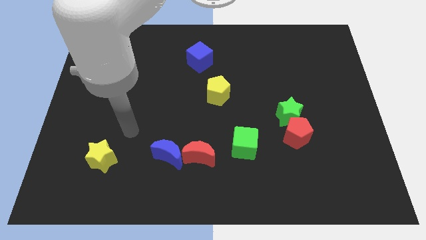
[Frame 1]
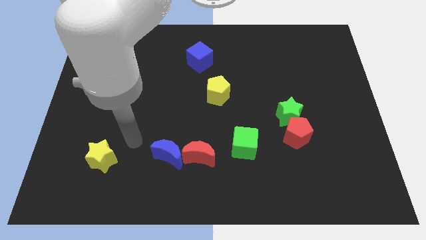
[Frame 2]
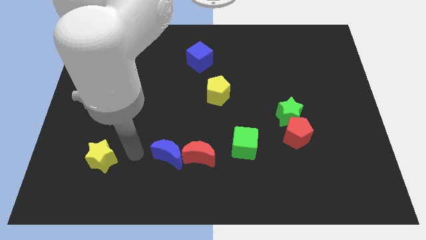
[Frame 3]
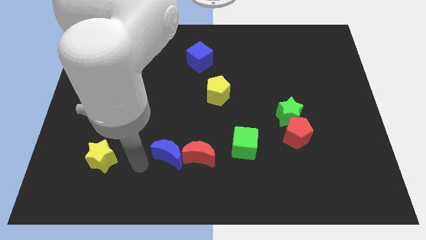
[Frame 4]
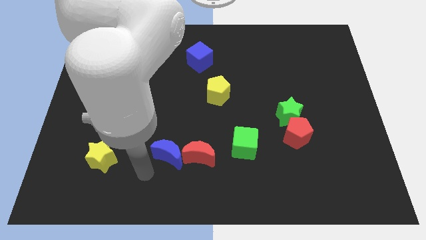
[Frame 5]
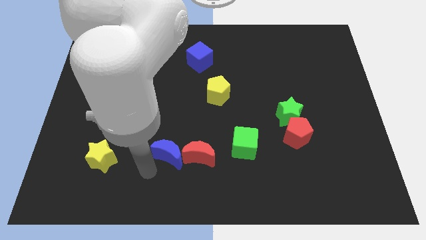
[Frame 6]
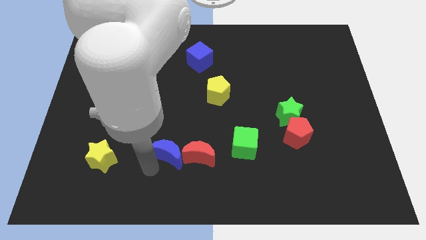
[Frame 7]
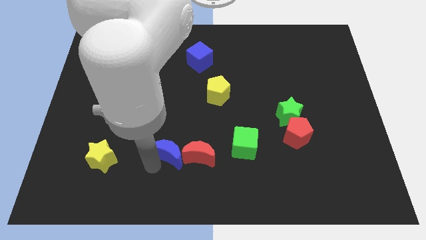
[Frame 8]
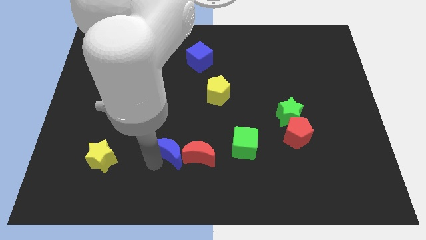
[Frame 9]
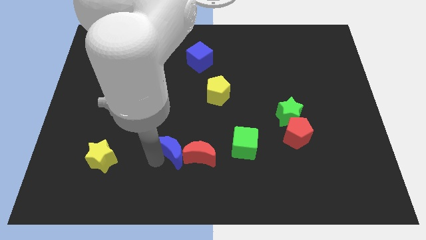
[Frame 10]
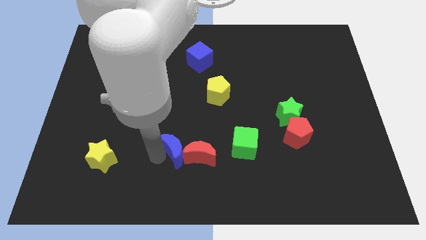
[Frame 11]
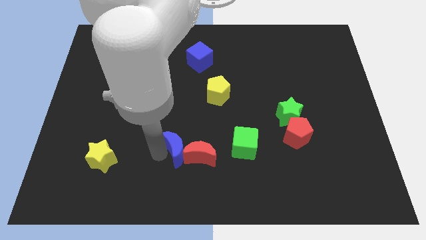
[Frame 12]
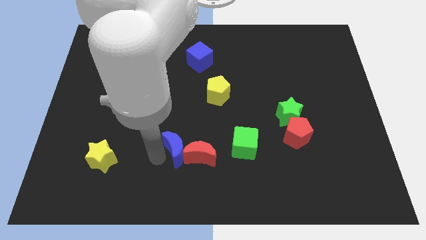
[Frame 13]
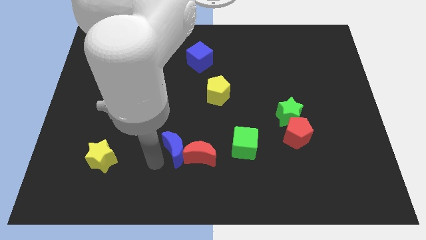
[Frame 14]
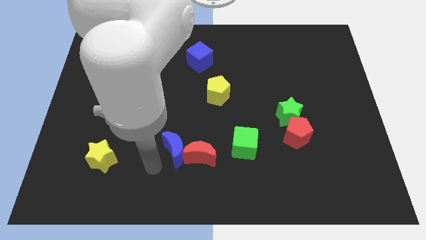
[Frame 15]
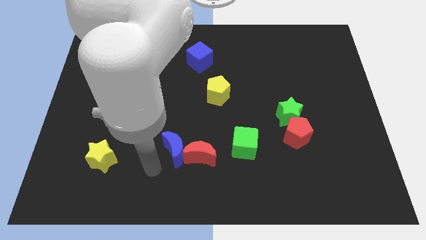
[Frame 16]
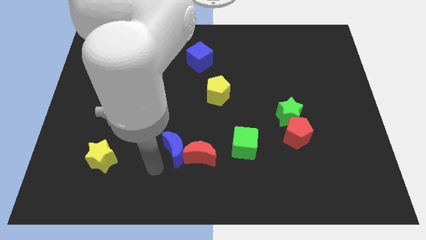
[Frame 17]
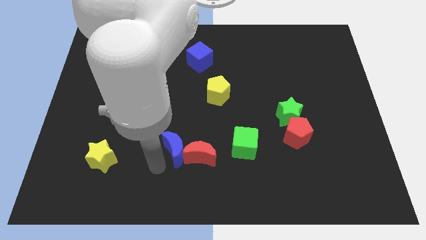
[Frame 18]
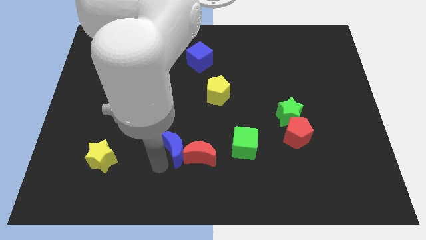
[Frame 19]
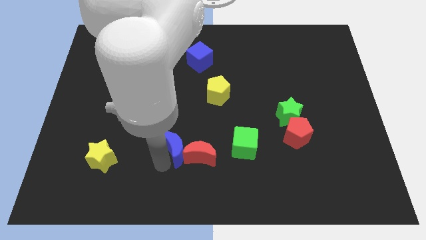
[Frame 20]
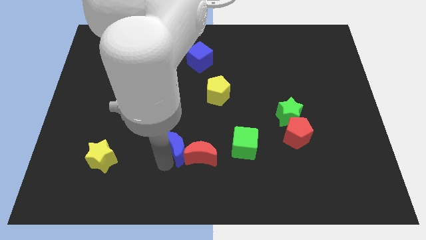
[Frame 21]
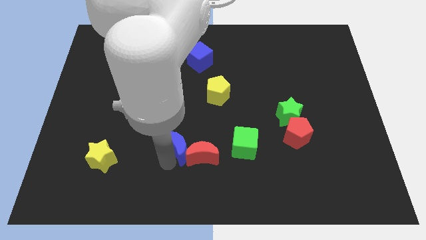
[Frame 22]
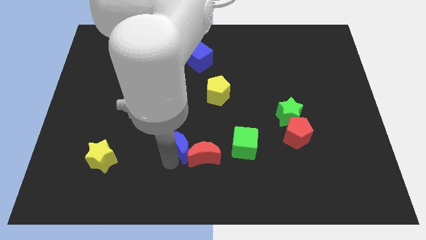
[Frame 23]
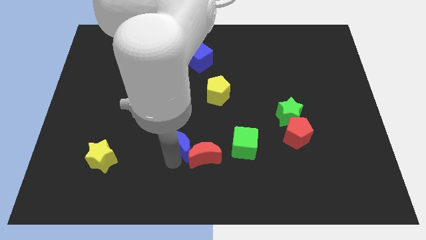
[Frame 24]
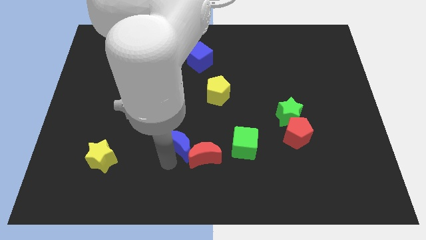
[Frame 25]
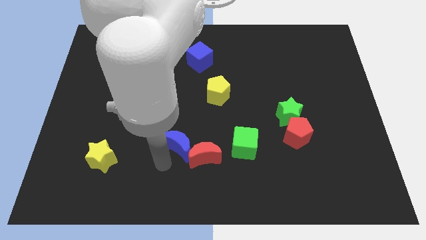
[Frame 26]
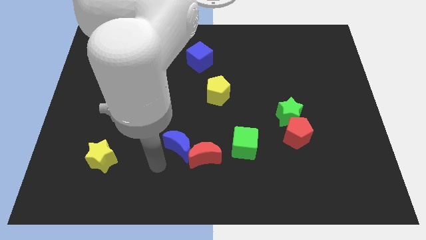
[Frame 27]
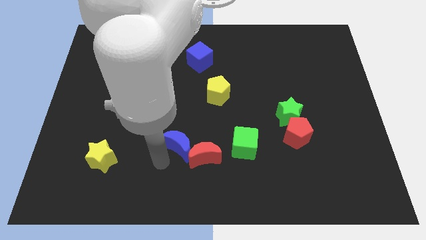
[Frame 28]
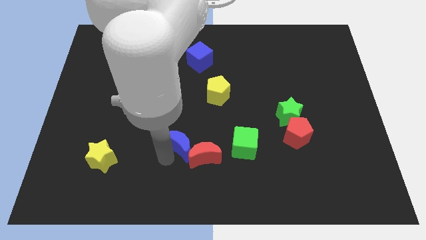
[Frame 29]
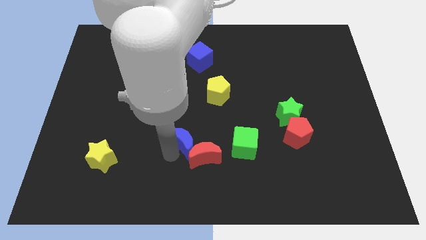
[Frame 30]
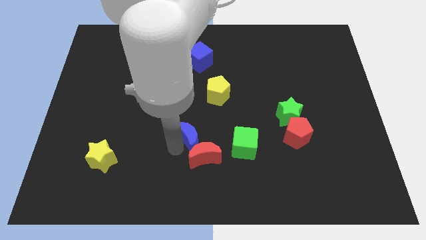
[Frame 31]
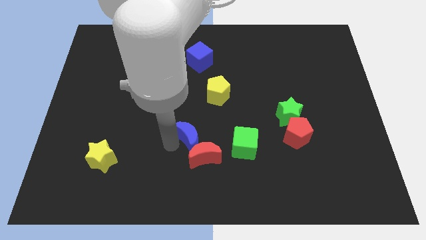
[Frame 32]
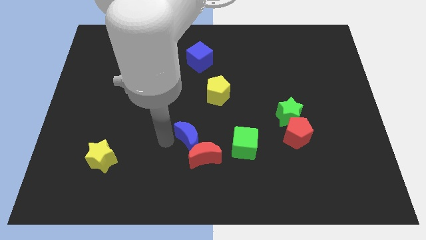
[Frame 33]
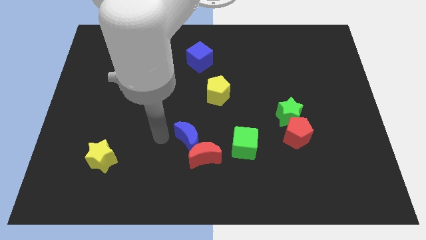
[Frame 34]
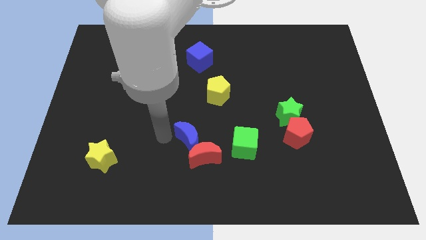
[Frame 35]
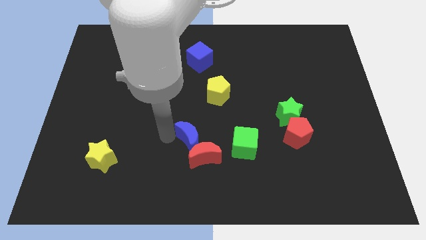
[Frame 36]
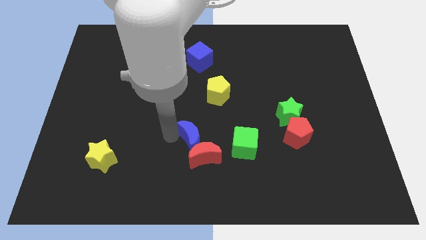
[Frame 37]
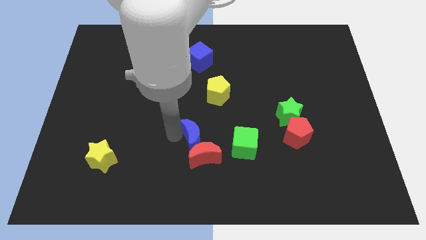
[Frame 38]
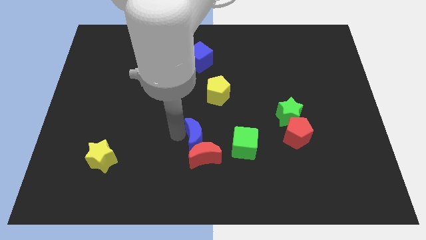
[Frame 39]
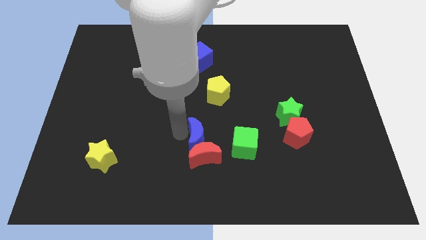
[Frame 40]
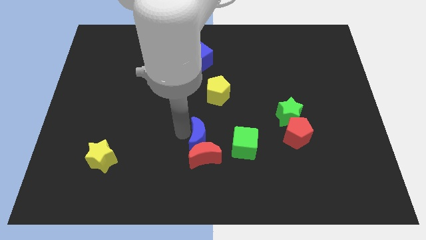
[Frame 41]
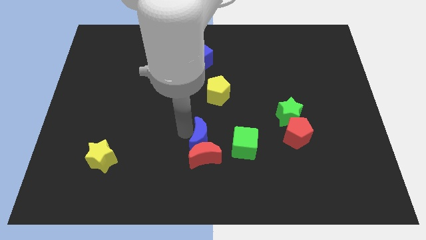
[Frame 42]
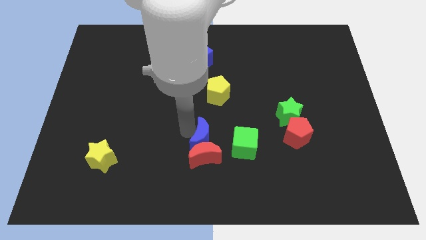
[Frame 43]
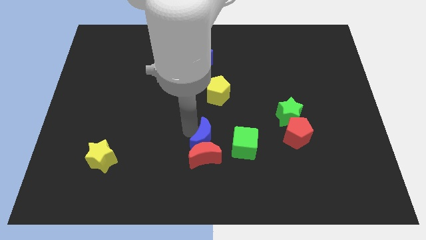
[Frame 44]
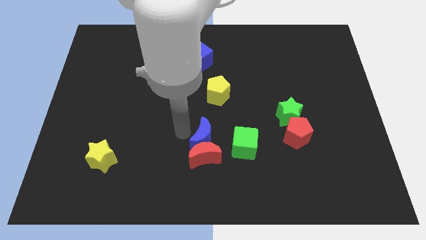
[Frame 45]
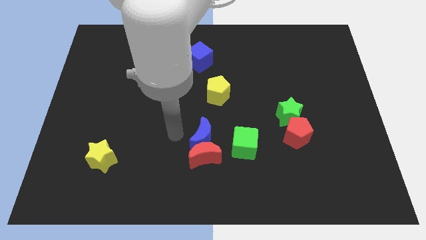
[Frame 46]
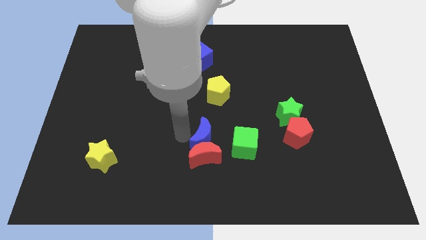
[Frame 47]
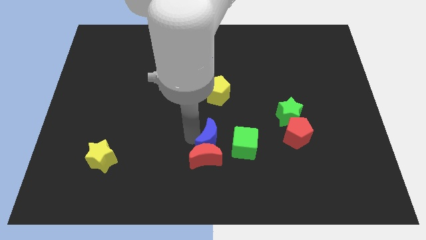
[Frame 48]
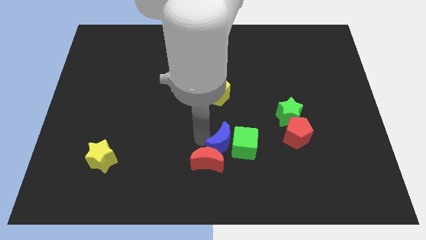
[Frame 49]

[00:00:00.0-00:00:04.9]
put the blue moon towards the green cube

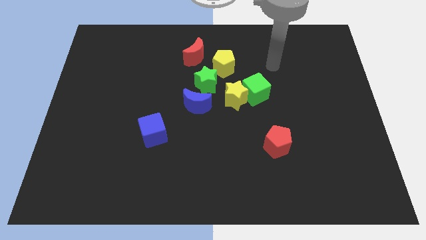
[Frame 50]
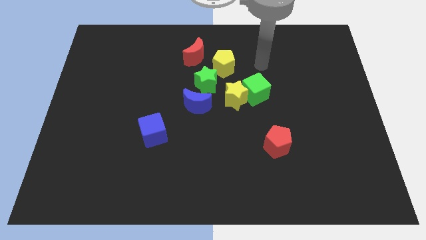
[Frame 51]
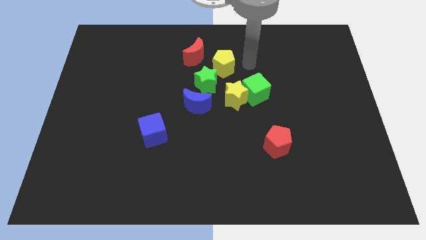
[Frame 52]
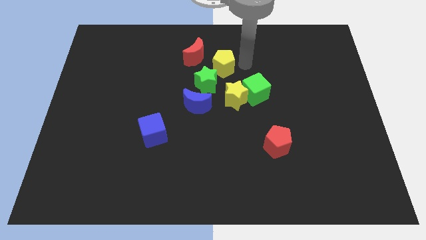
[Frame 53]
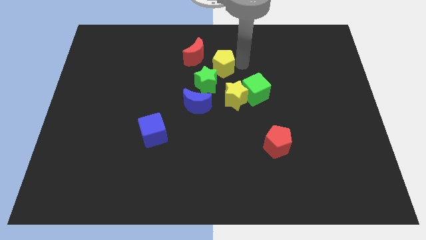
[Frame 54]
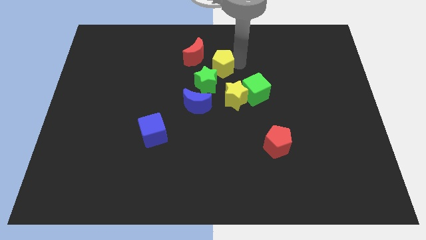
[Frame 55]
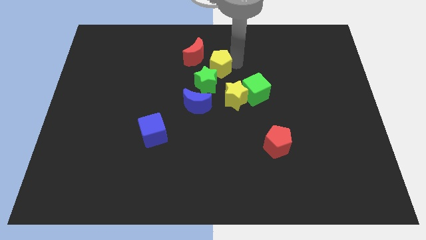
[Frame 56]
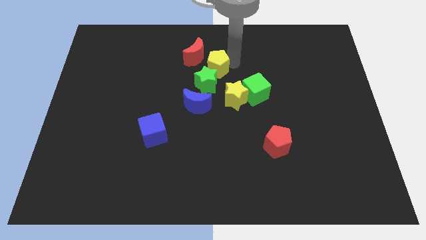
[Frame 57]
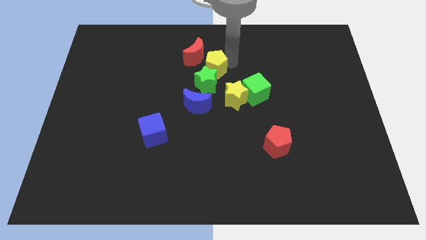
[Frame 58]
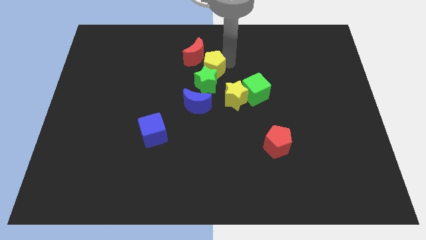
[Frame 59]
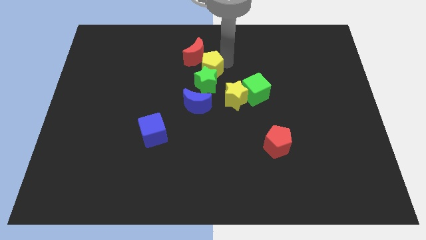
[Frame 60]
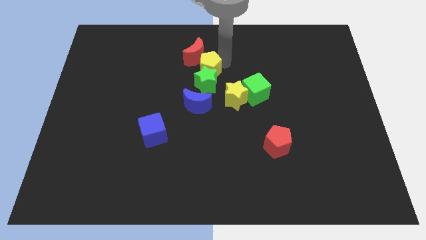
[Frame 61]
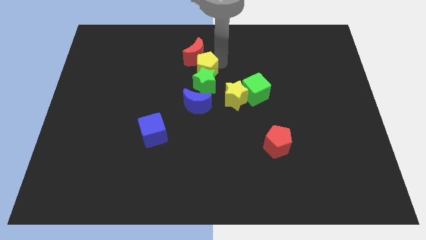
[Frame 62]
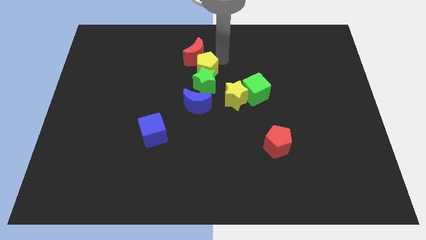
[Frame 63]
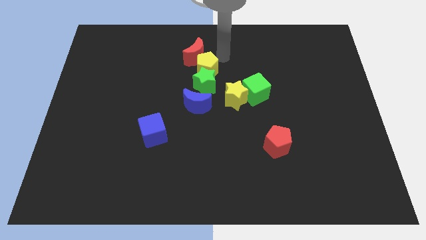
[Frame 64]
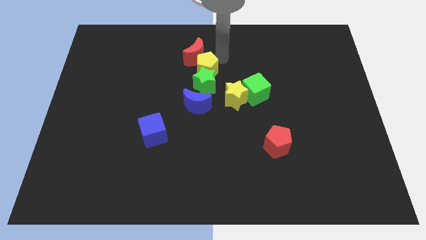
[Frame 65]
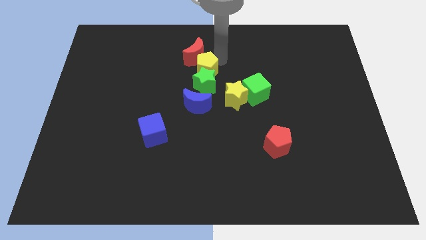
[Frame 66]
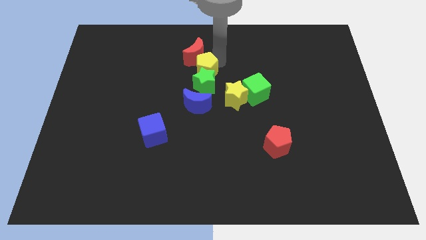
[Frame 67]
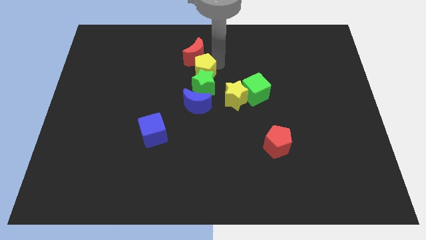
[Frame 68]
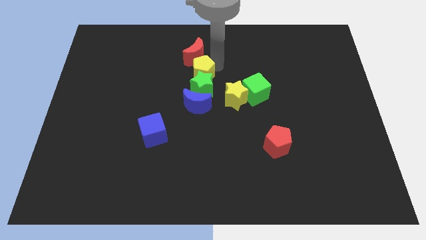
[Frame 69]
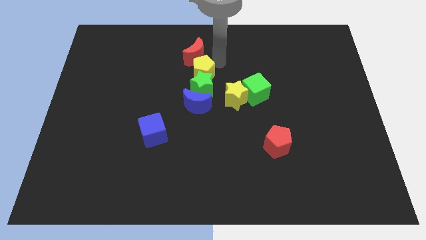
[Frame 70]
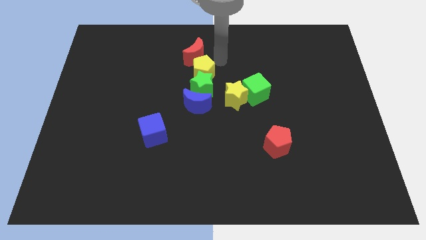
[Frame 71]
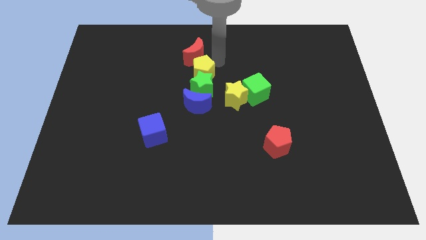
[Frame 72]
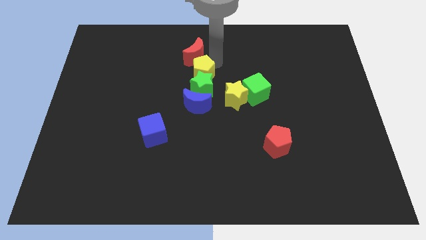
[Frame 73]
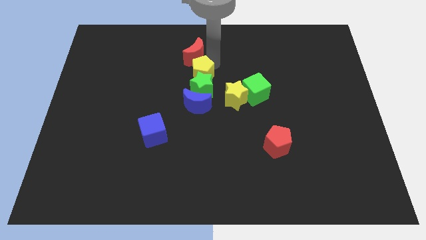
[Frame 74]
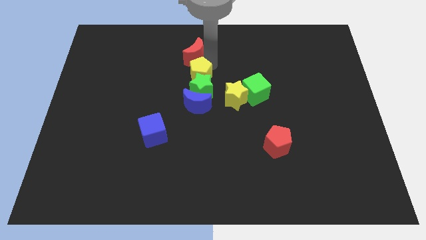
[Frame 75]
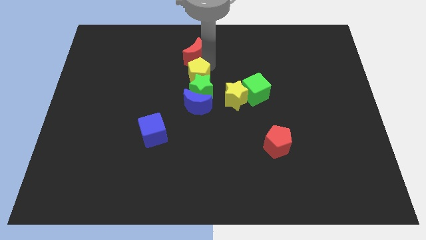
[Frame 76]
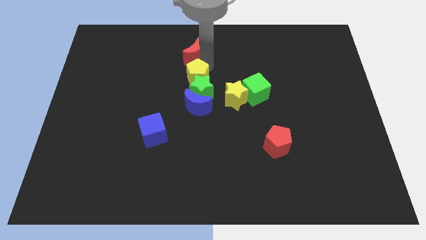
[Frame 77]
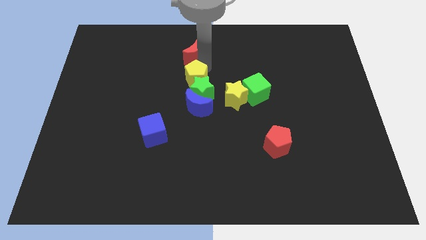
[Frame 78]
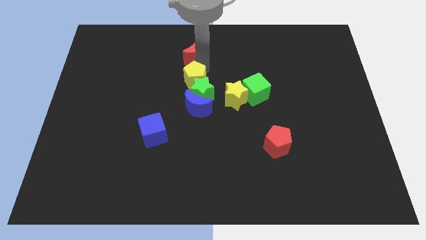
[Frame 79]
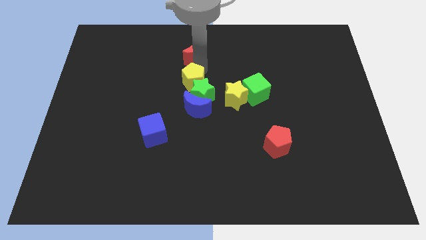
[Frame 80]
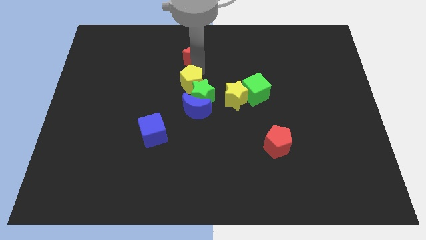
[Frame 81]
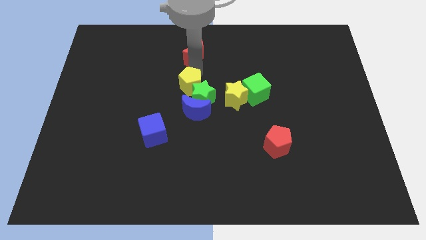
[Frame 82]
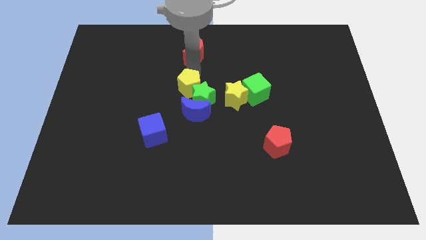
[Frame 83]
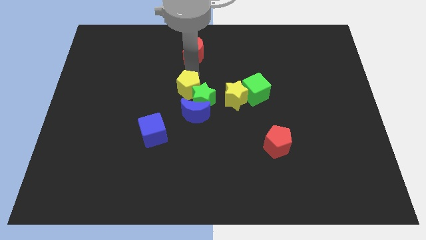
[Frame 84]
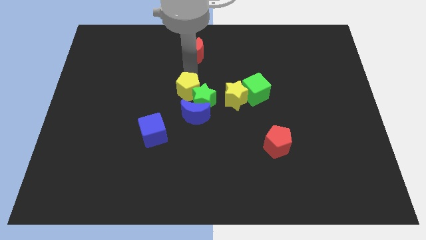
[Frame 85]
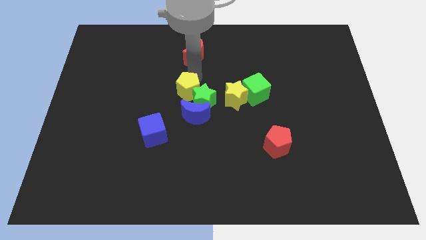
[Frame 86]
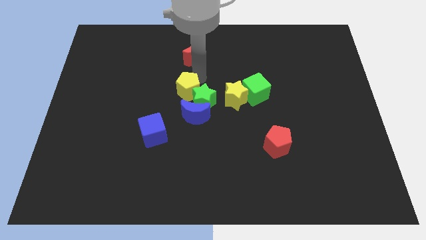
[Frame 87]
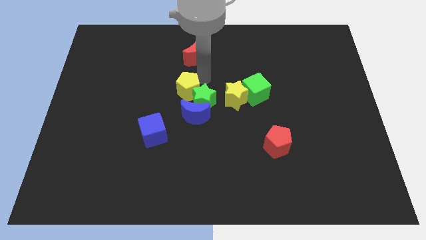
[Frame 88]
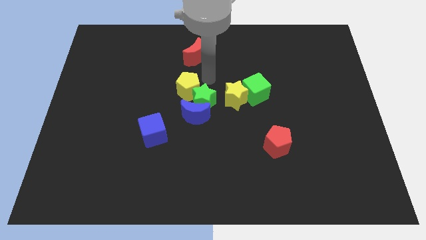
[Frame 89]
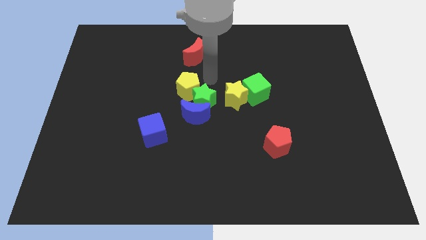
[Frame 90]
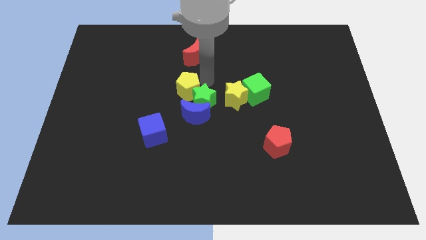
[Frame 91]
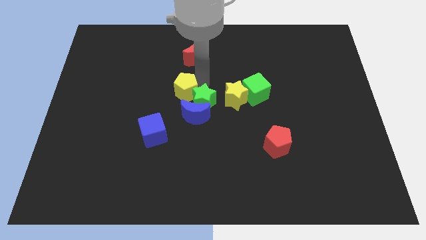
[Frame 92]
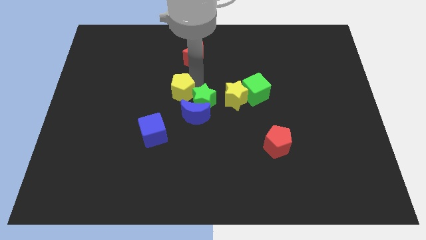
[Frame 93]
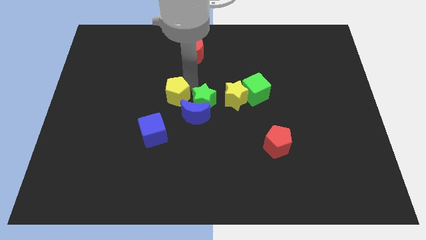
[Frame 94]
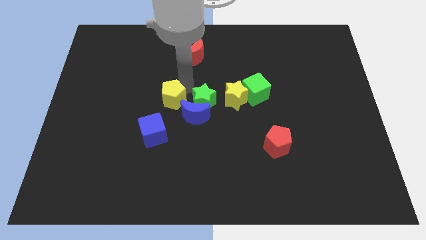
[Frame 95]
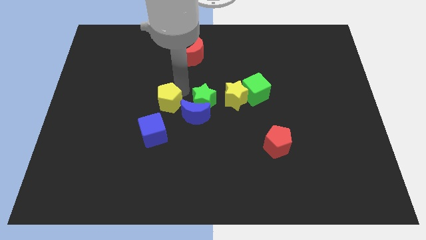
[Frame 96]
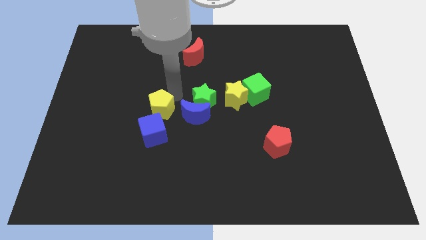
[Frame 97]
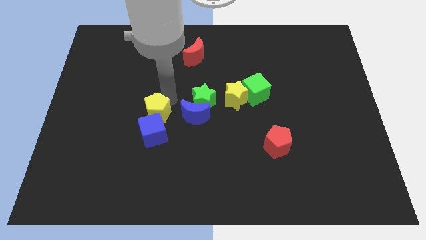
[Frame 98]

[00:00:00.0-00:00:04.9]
push the yellow pentagon to the blue cube
